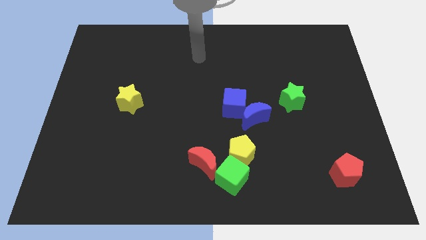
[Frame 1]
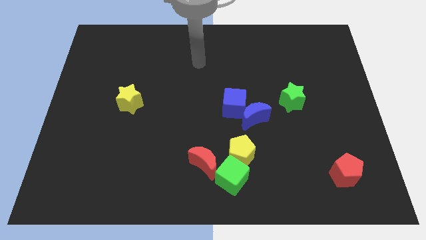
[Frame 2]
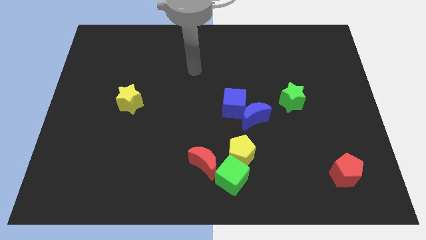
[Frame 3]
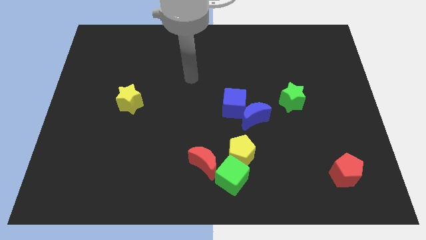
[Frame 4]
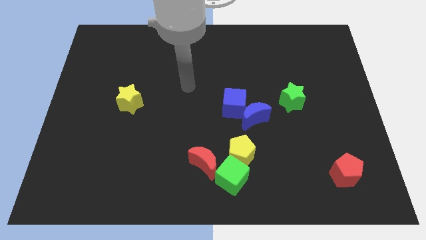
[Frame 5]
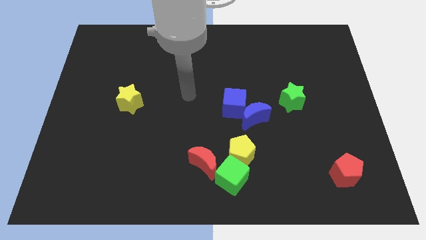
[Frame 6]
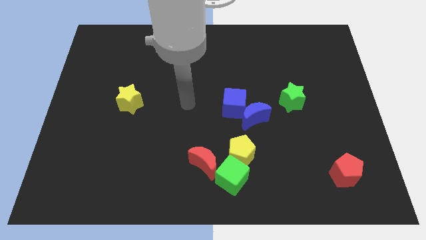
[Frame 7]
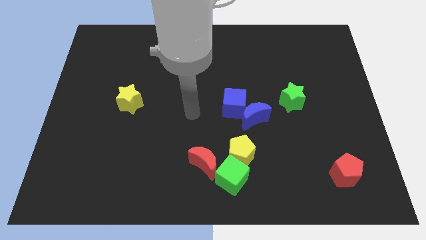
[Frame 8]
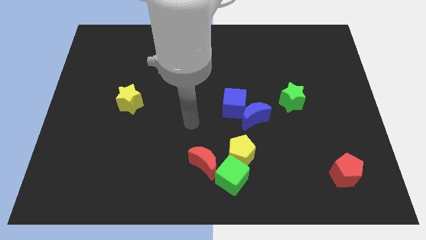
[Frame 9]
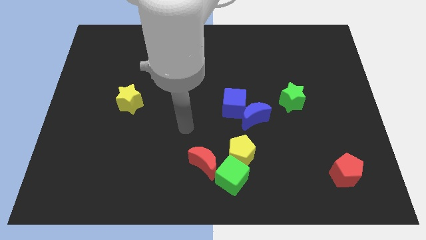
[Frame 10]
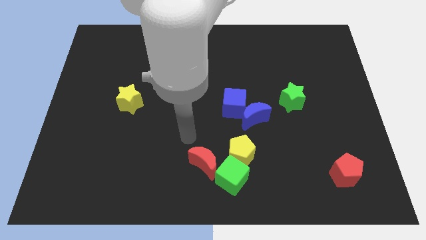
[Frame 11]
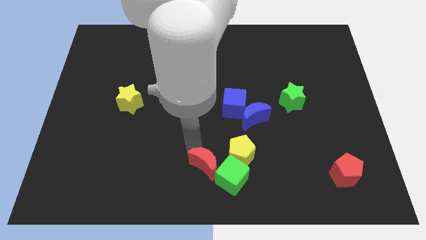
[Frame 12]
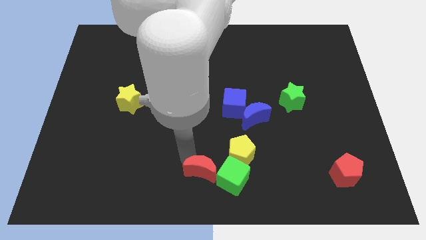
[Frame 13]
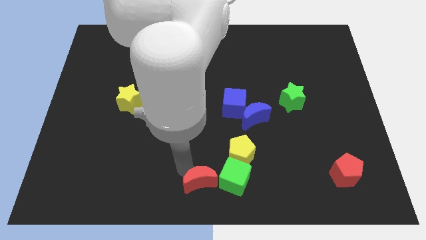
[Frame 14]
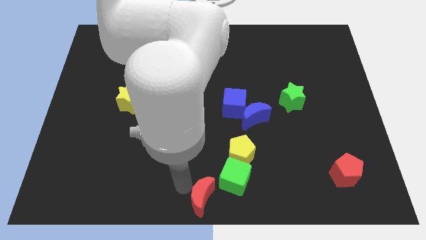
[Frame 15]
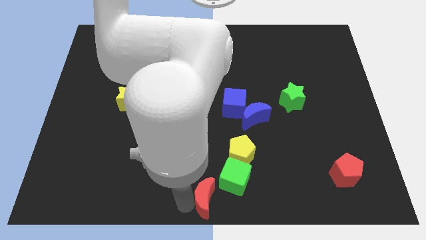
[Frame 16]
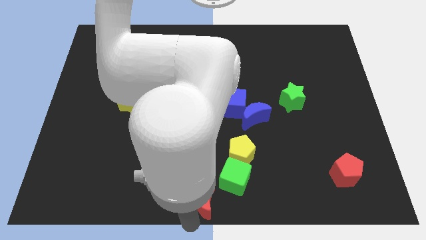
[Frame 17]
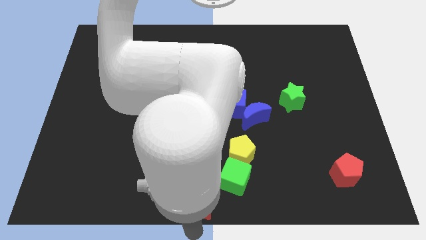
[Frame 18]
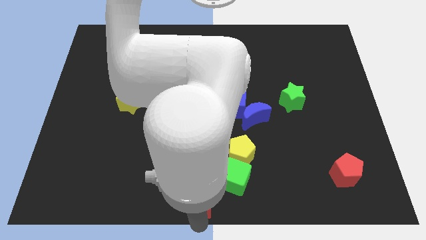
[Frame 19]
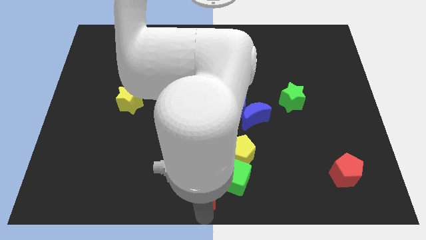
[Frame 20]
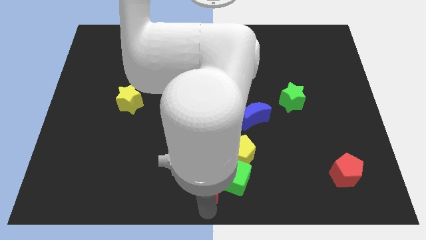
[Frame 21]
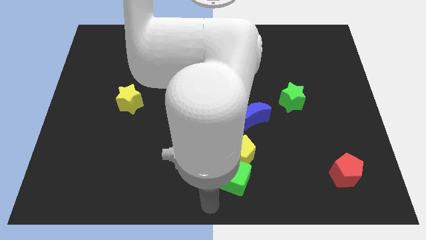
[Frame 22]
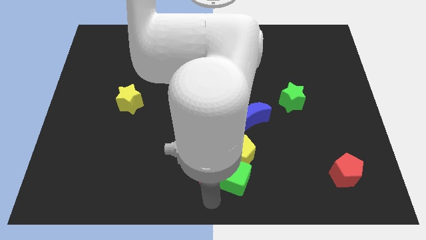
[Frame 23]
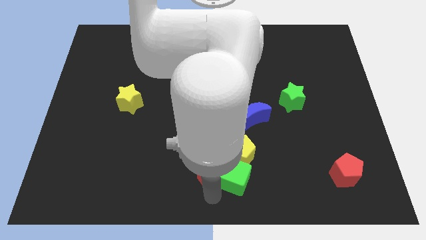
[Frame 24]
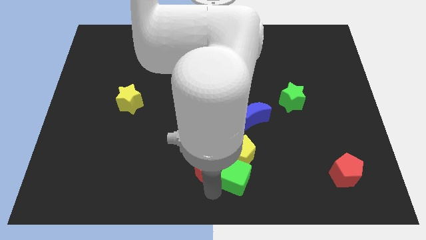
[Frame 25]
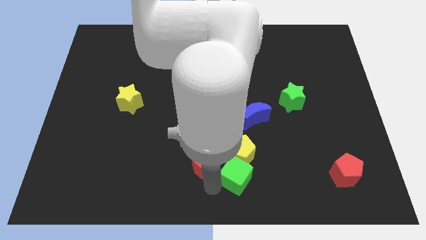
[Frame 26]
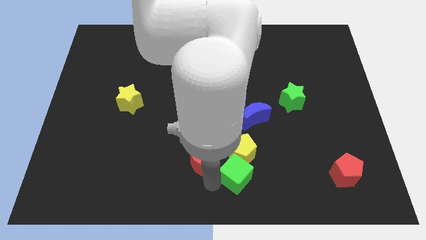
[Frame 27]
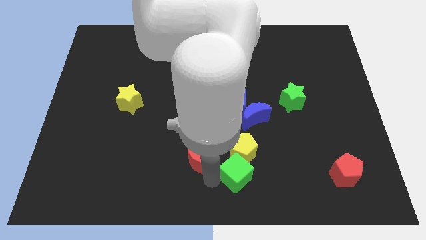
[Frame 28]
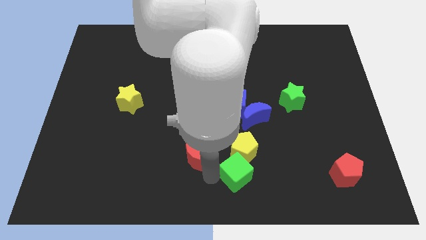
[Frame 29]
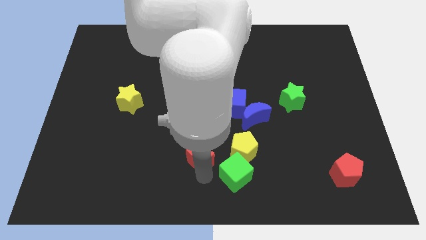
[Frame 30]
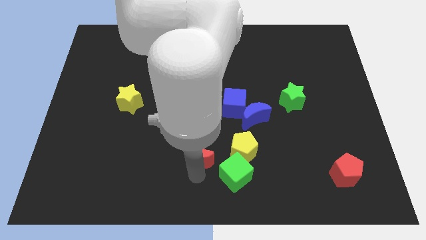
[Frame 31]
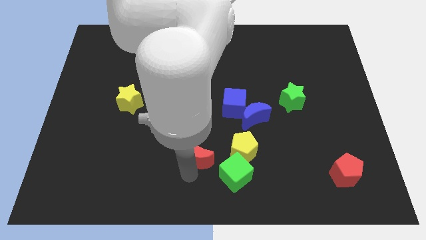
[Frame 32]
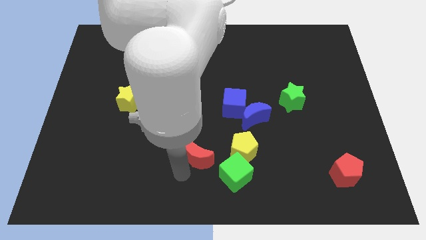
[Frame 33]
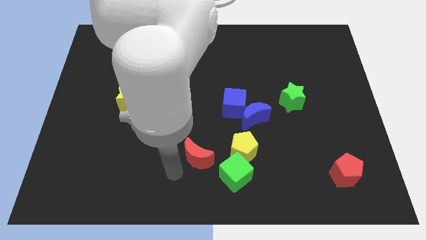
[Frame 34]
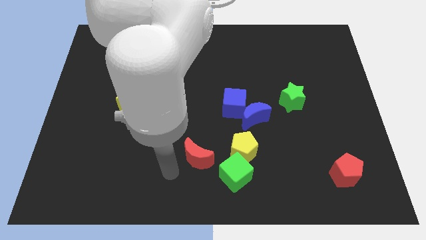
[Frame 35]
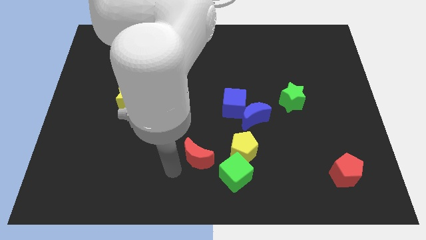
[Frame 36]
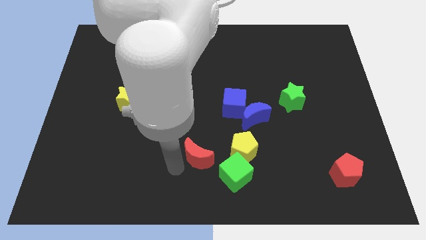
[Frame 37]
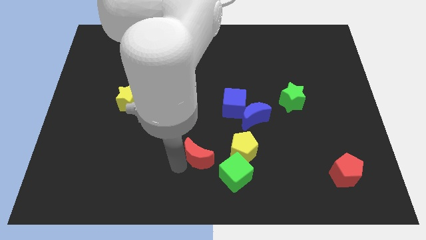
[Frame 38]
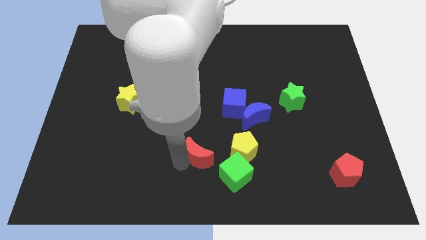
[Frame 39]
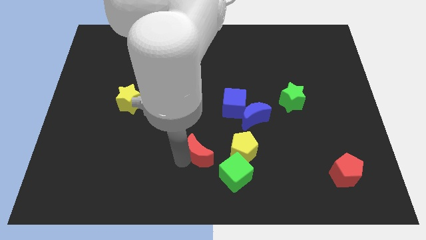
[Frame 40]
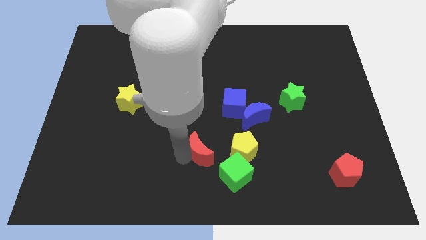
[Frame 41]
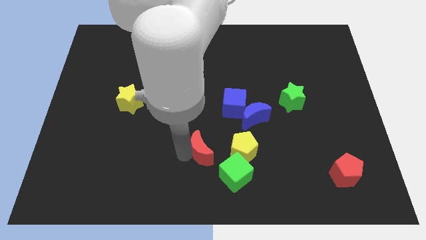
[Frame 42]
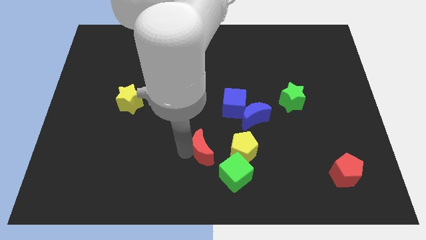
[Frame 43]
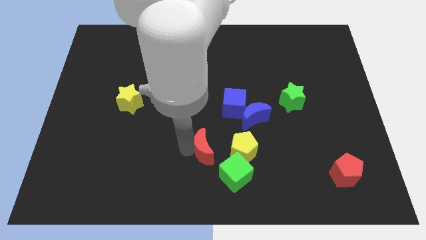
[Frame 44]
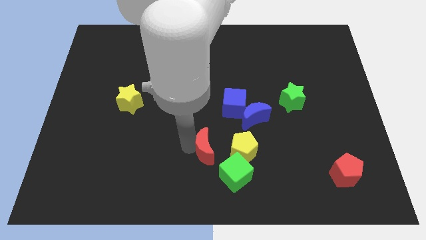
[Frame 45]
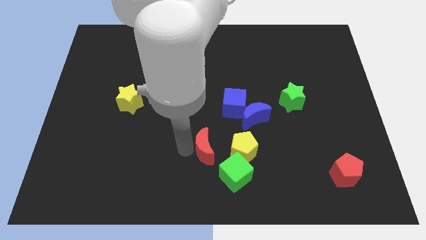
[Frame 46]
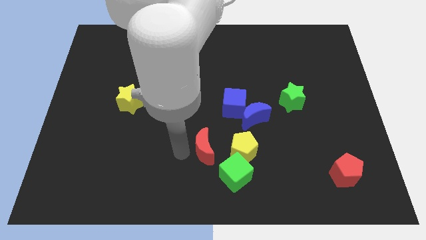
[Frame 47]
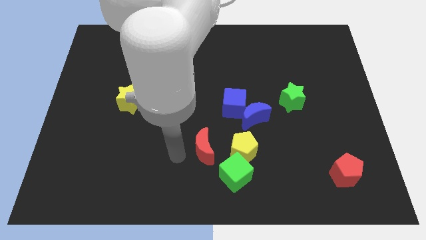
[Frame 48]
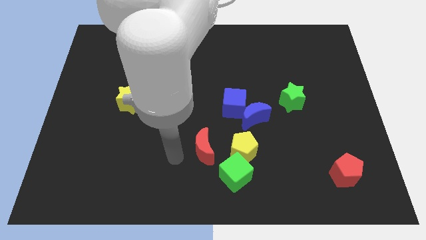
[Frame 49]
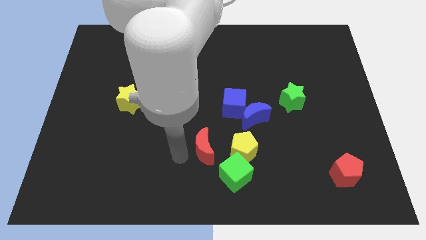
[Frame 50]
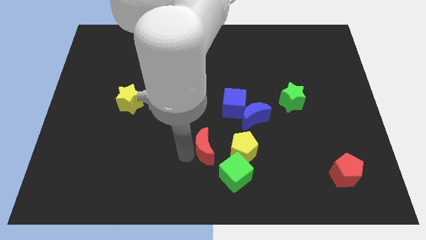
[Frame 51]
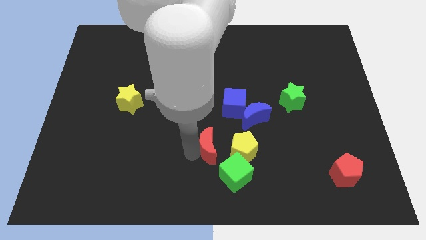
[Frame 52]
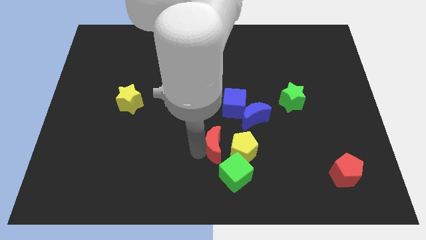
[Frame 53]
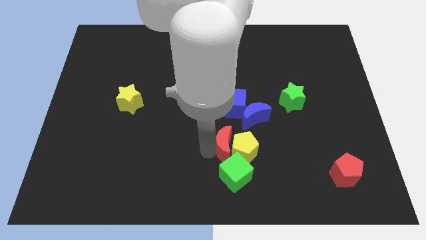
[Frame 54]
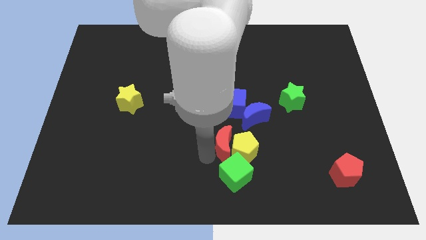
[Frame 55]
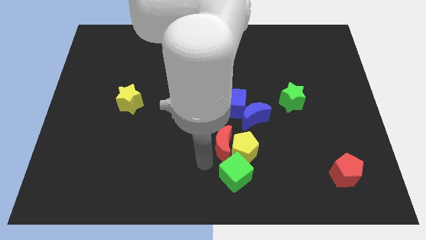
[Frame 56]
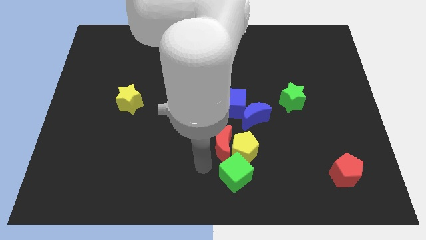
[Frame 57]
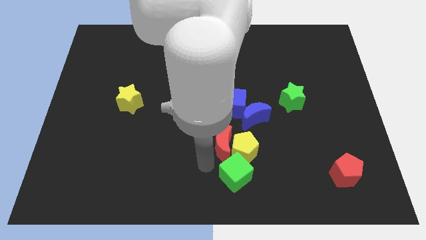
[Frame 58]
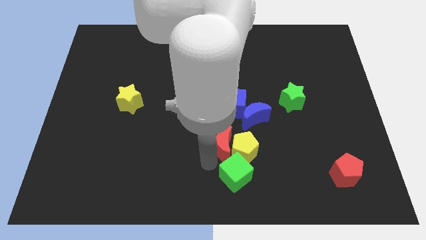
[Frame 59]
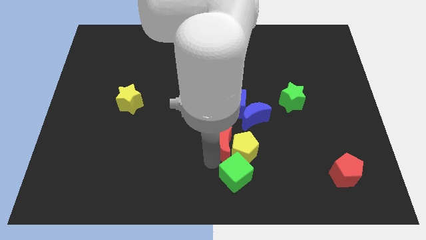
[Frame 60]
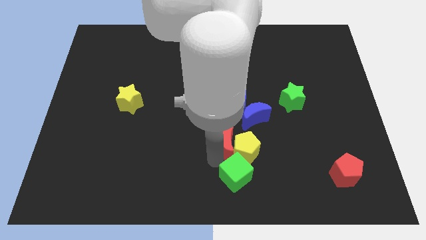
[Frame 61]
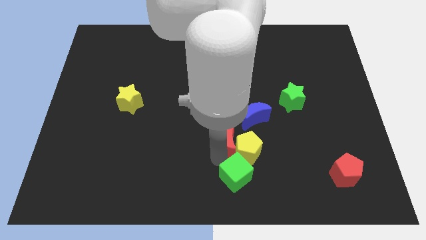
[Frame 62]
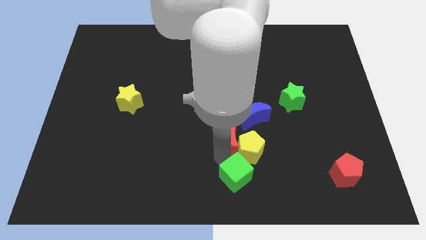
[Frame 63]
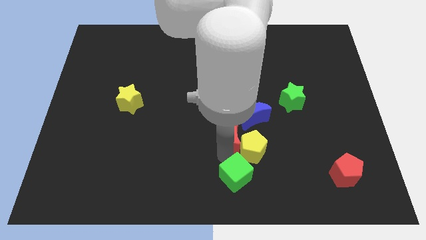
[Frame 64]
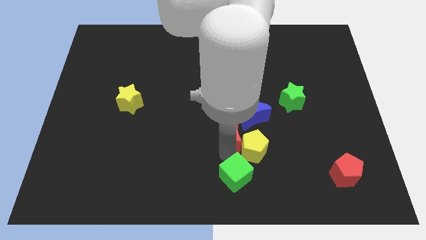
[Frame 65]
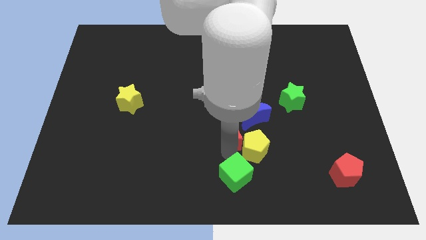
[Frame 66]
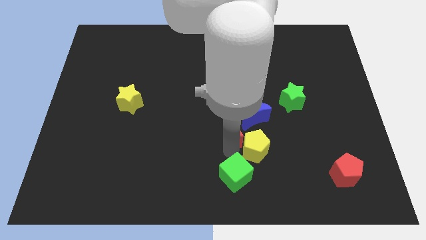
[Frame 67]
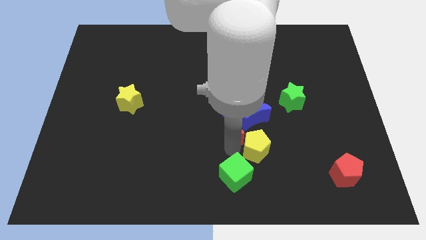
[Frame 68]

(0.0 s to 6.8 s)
push the red moon to the blue moon

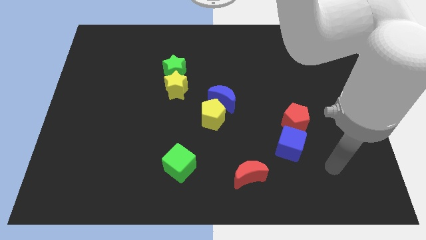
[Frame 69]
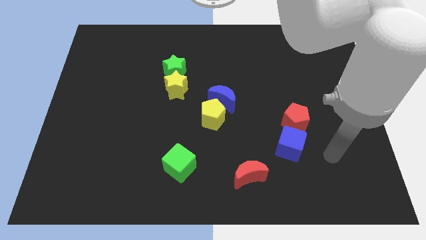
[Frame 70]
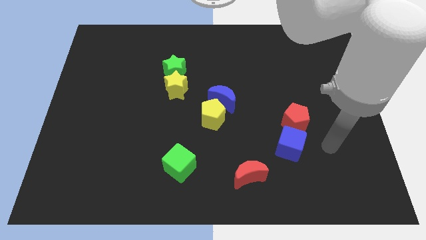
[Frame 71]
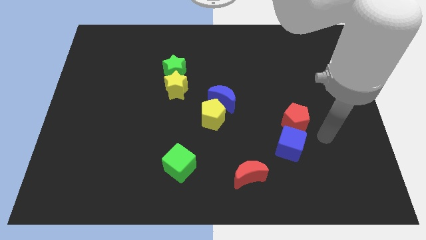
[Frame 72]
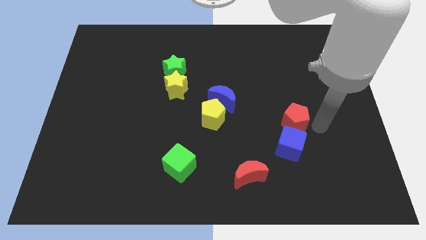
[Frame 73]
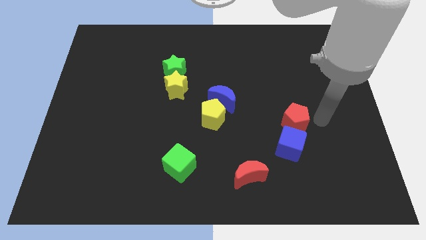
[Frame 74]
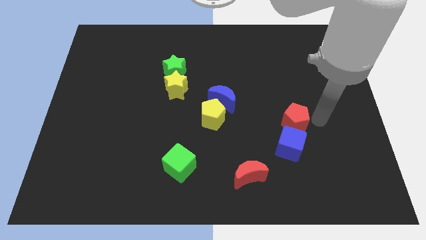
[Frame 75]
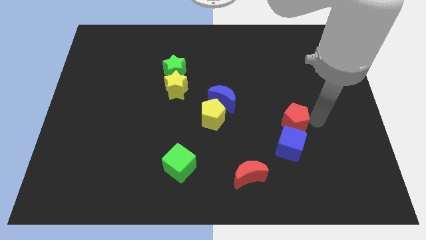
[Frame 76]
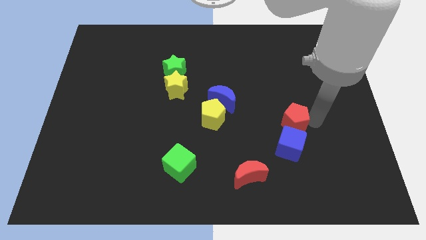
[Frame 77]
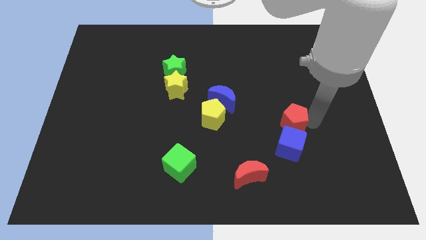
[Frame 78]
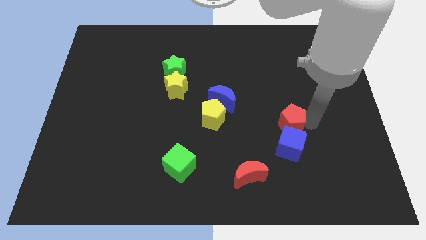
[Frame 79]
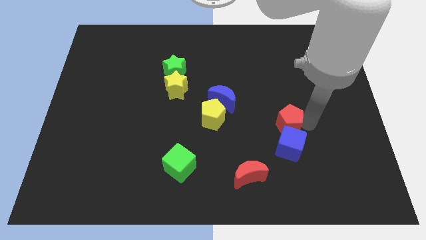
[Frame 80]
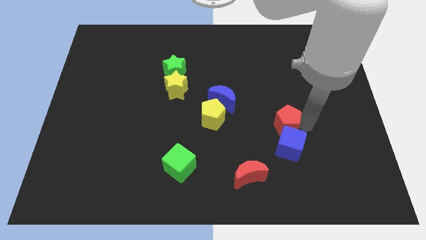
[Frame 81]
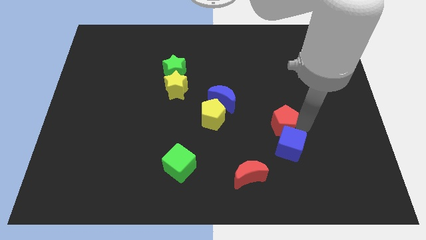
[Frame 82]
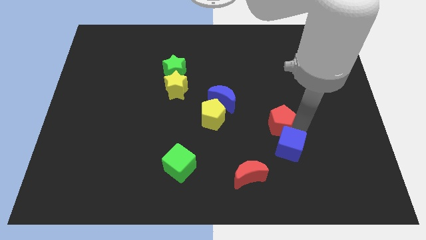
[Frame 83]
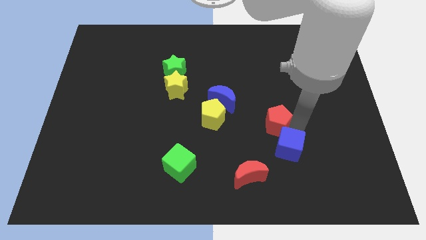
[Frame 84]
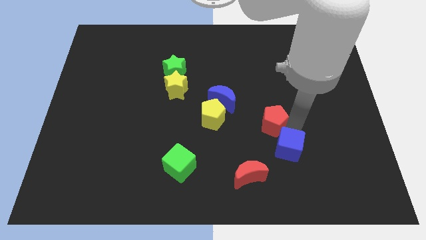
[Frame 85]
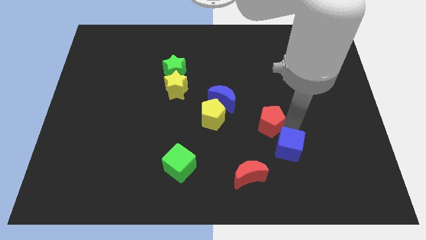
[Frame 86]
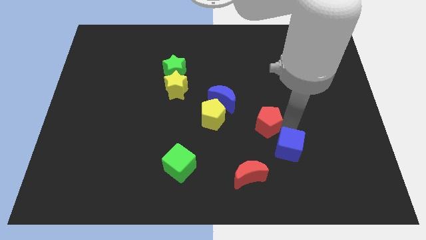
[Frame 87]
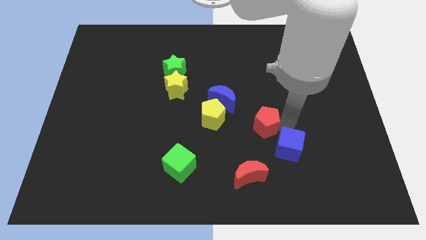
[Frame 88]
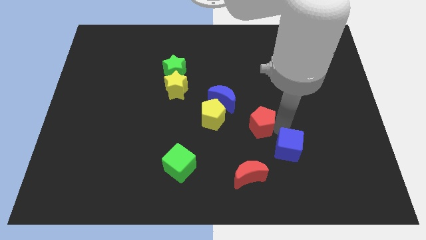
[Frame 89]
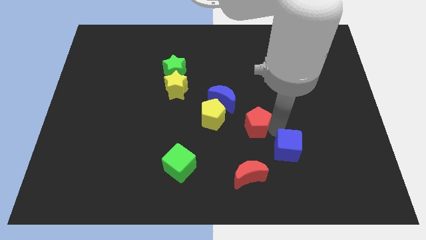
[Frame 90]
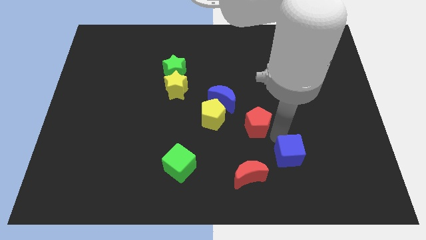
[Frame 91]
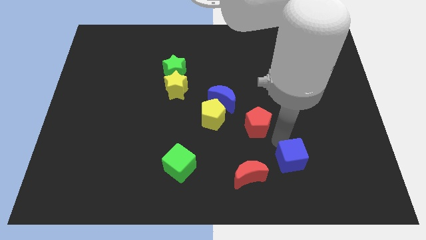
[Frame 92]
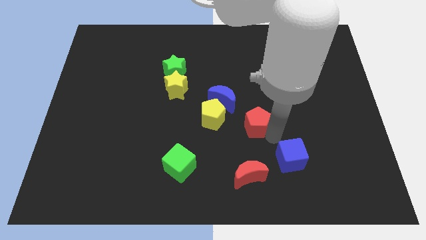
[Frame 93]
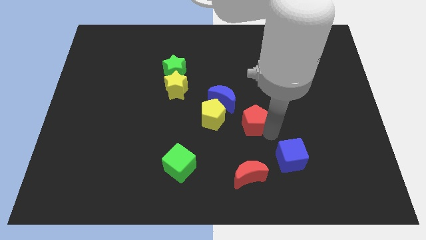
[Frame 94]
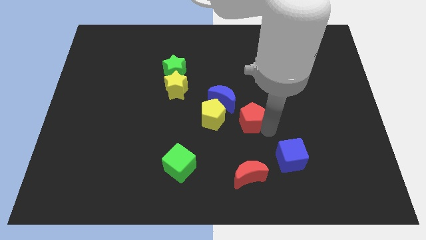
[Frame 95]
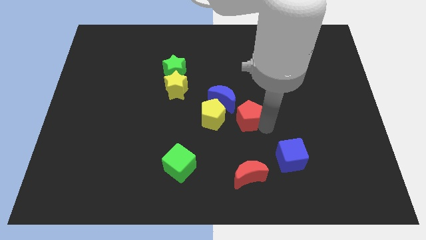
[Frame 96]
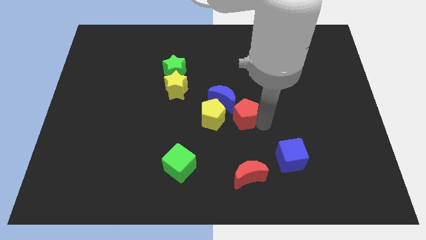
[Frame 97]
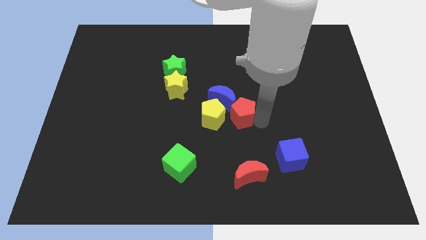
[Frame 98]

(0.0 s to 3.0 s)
push the red pentagon next to the blue moon
